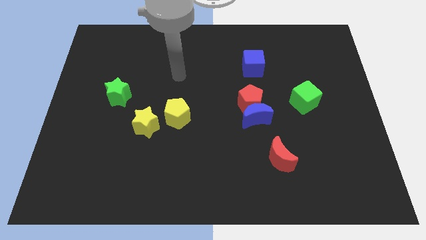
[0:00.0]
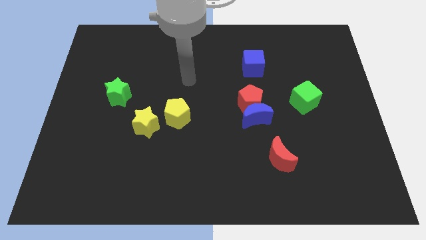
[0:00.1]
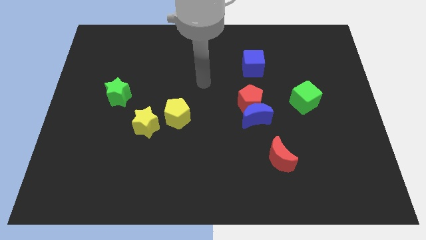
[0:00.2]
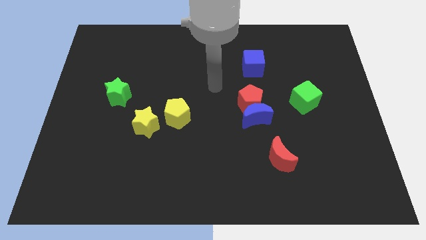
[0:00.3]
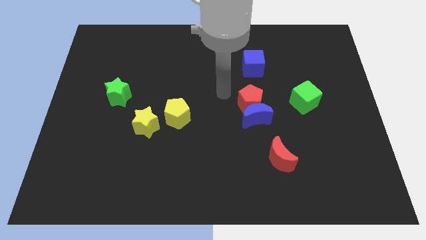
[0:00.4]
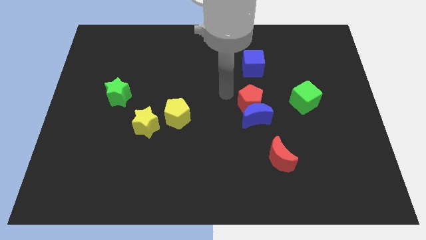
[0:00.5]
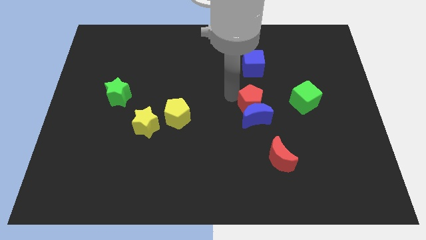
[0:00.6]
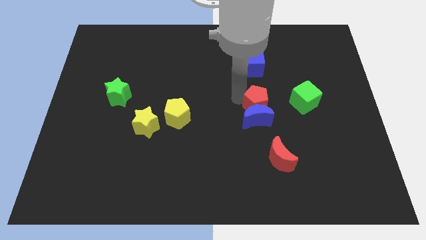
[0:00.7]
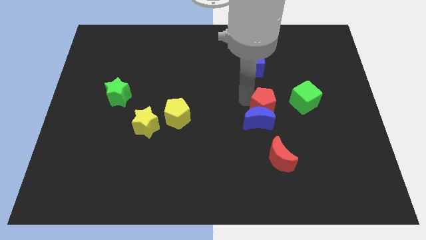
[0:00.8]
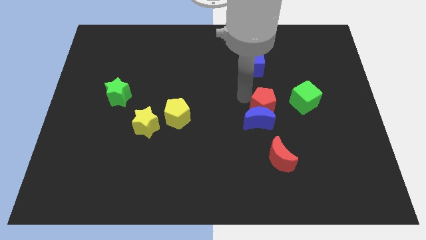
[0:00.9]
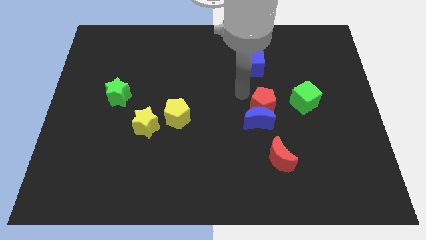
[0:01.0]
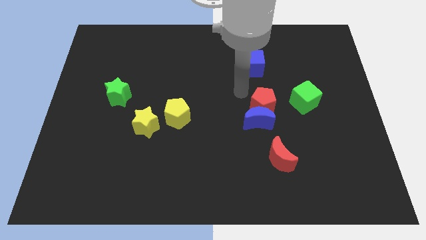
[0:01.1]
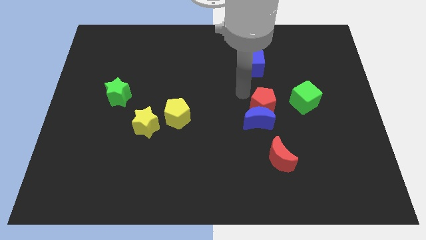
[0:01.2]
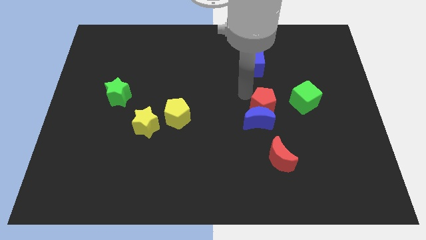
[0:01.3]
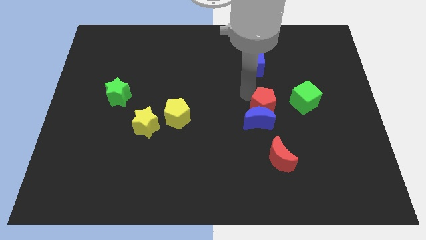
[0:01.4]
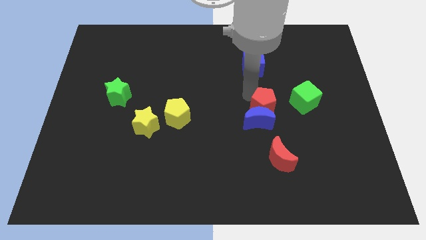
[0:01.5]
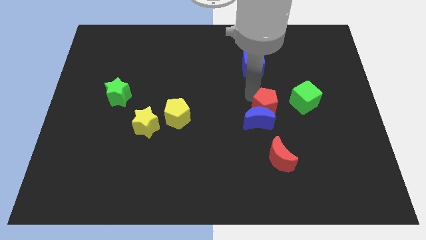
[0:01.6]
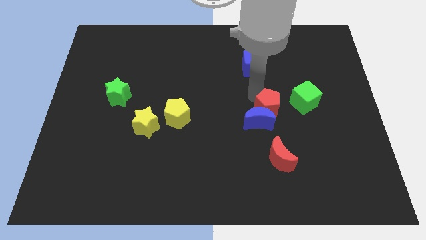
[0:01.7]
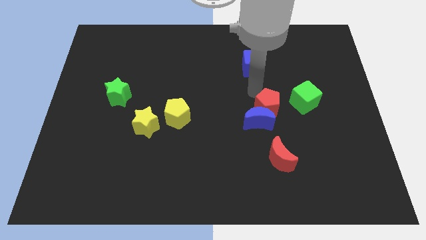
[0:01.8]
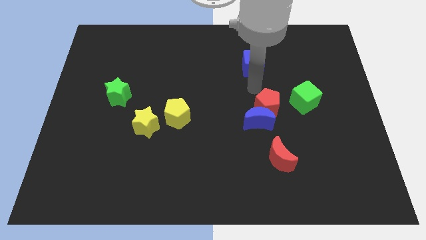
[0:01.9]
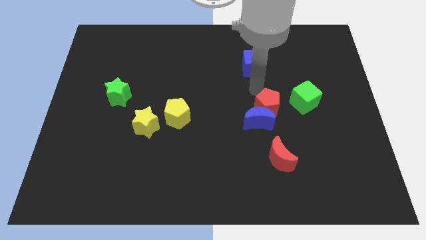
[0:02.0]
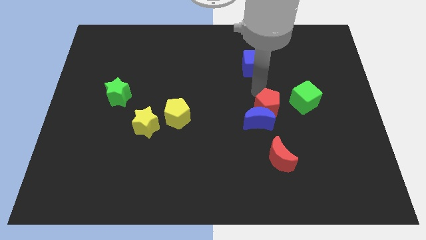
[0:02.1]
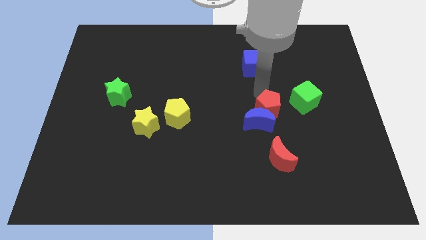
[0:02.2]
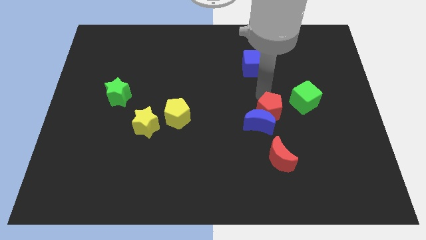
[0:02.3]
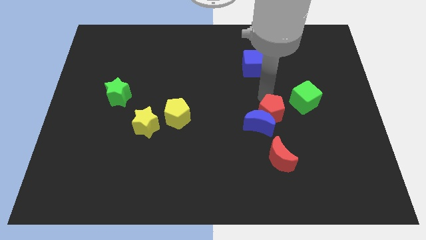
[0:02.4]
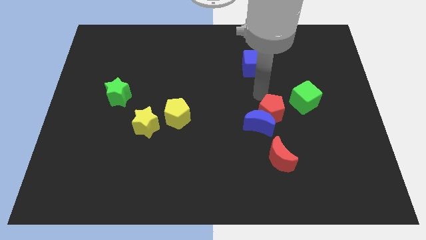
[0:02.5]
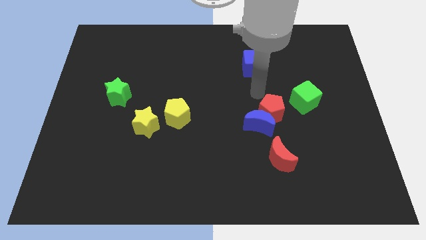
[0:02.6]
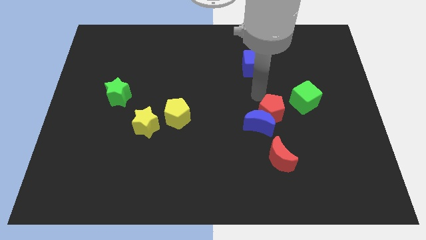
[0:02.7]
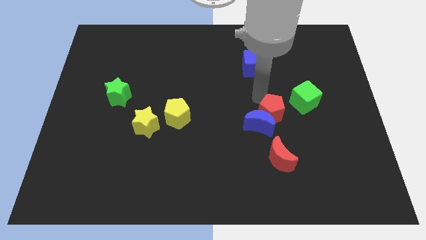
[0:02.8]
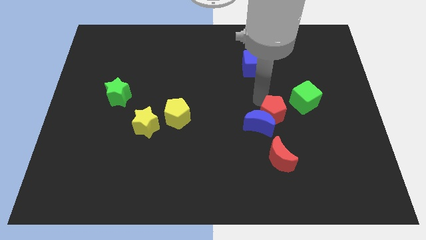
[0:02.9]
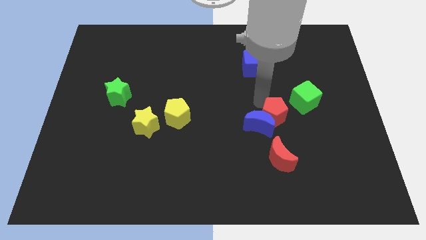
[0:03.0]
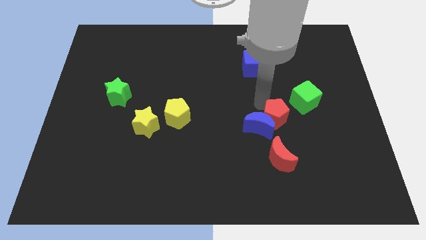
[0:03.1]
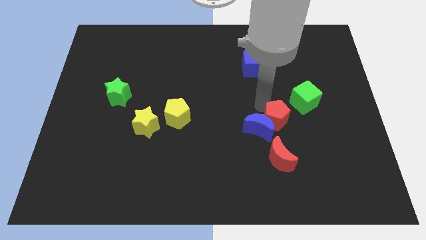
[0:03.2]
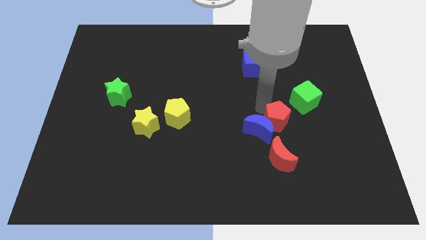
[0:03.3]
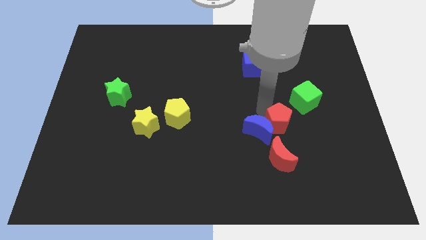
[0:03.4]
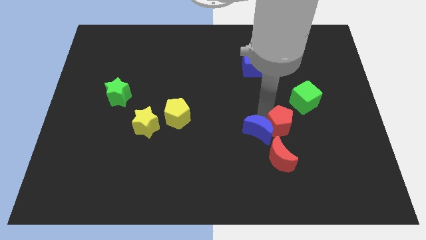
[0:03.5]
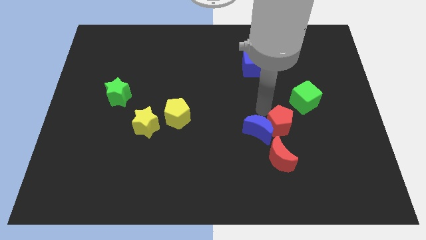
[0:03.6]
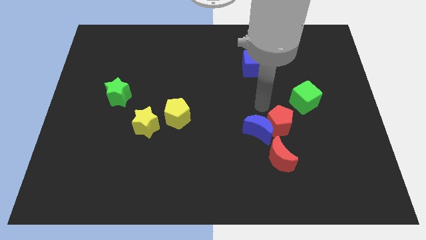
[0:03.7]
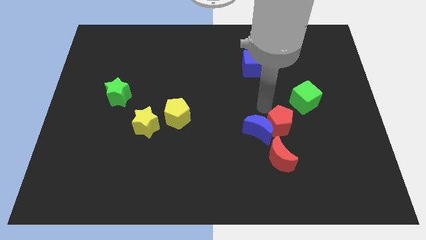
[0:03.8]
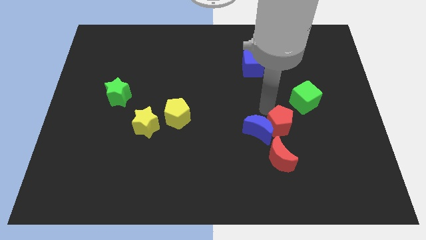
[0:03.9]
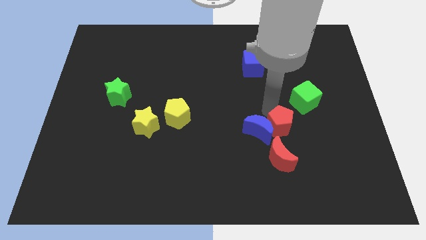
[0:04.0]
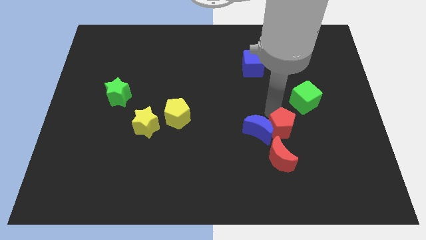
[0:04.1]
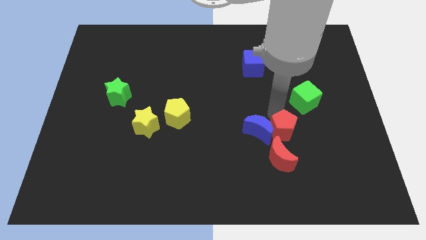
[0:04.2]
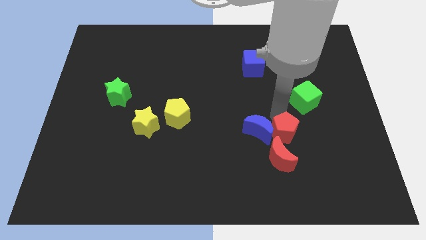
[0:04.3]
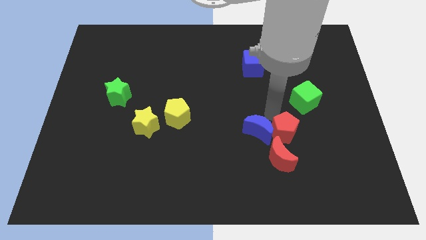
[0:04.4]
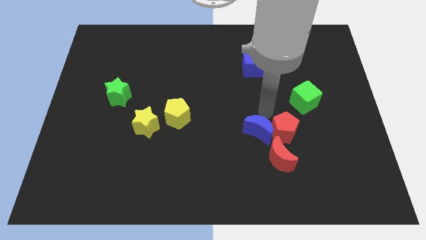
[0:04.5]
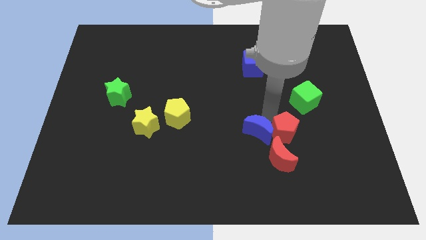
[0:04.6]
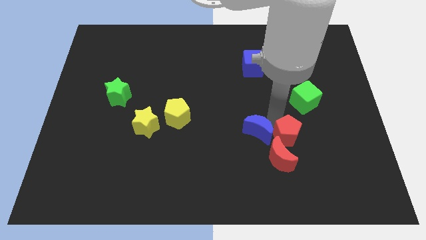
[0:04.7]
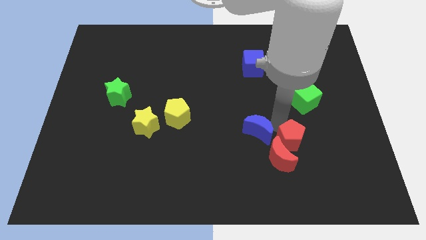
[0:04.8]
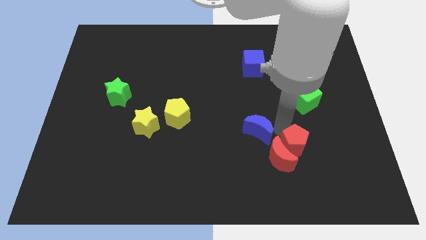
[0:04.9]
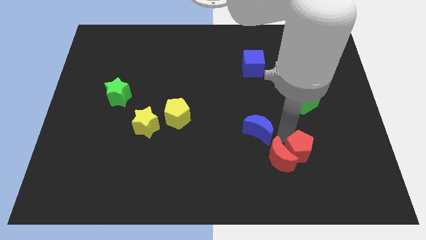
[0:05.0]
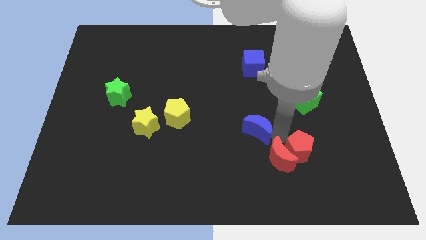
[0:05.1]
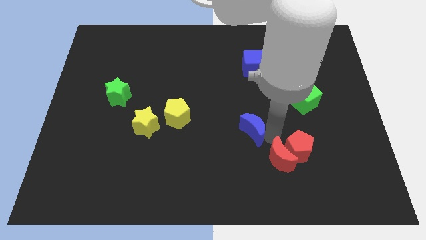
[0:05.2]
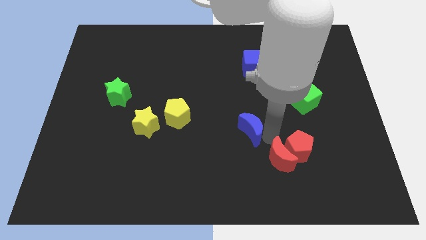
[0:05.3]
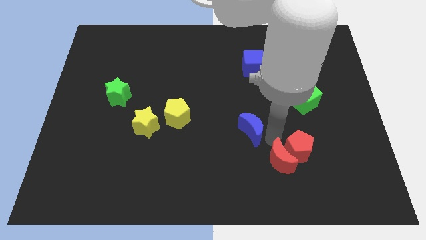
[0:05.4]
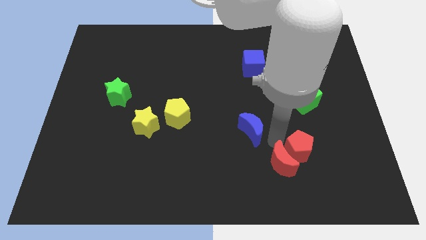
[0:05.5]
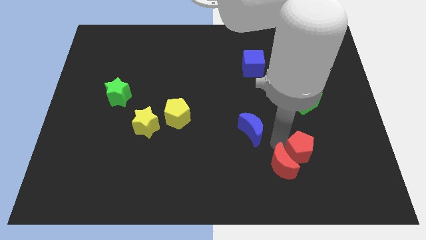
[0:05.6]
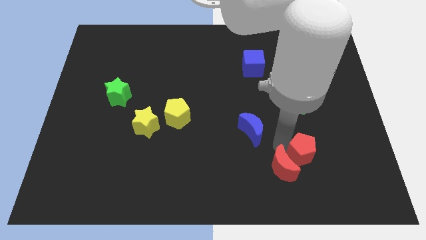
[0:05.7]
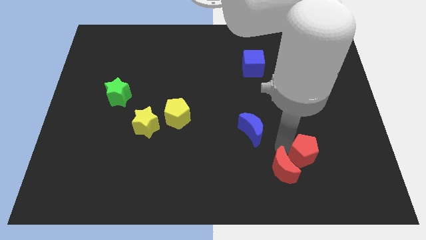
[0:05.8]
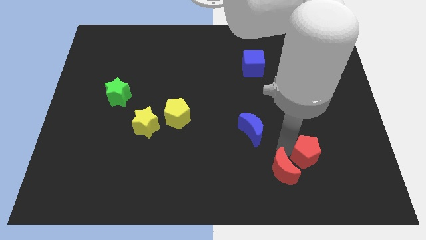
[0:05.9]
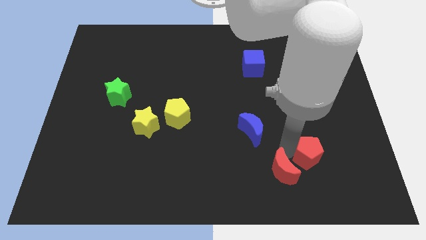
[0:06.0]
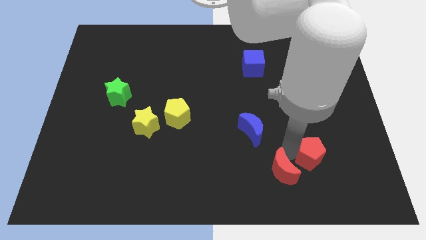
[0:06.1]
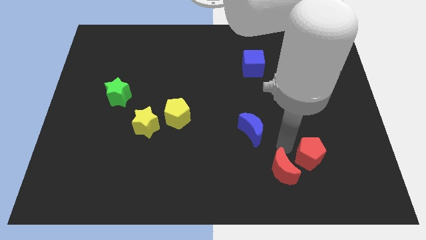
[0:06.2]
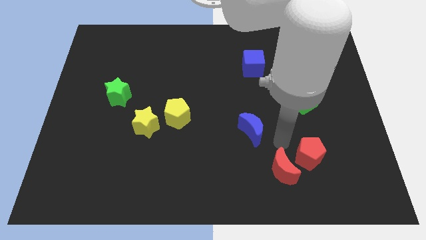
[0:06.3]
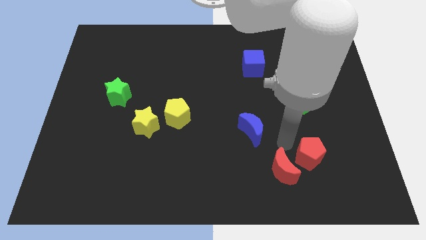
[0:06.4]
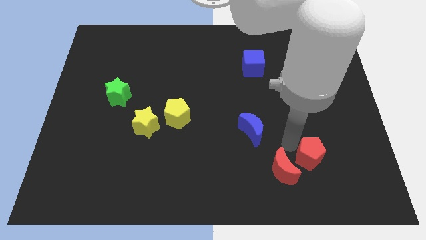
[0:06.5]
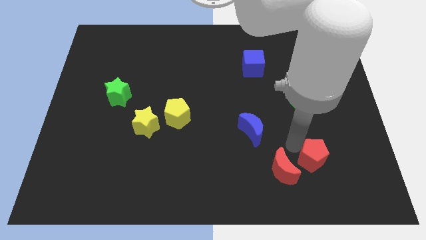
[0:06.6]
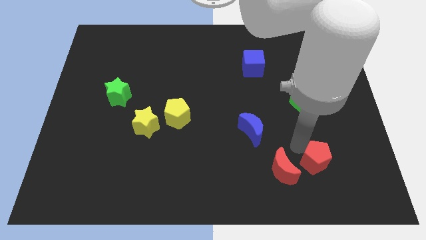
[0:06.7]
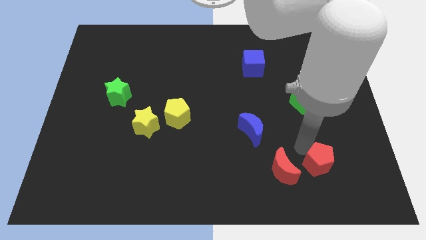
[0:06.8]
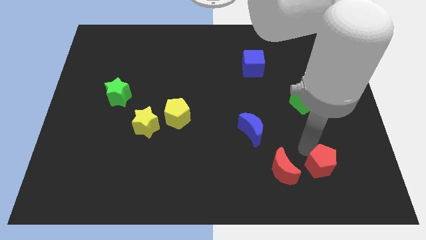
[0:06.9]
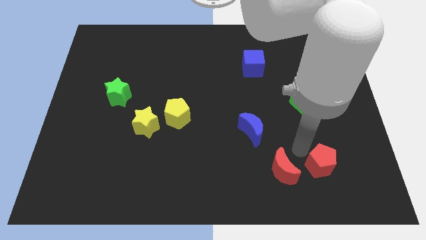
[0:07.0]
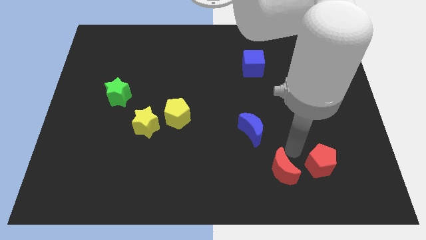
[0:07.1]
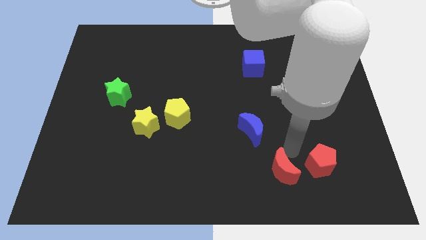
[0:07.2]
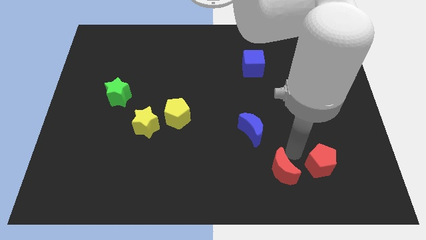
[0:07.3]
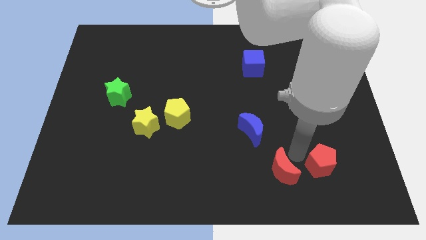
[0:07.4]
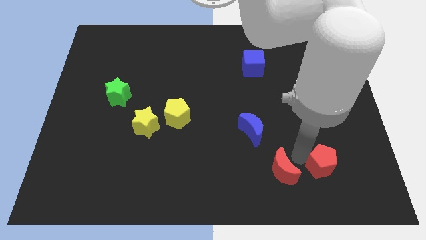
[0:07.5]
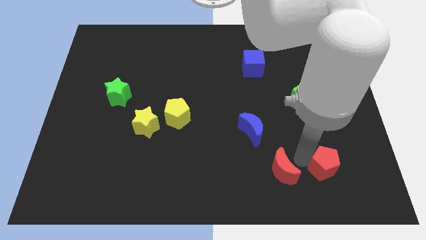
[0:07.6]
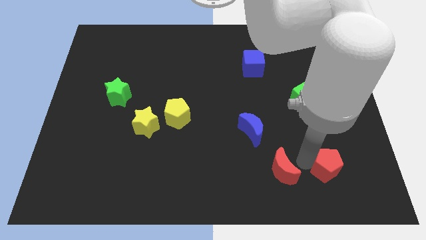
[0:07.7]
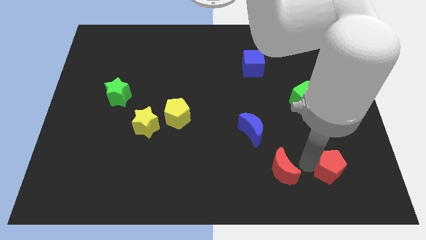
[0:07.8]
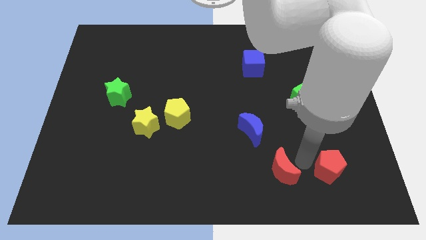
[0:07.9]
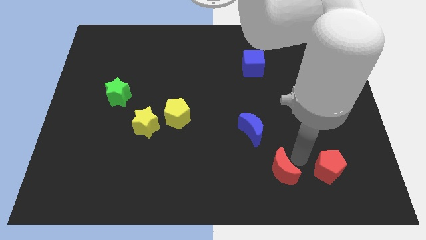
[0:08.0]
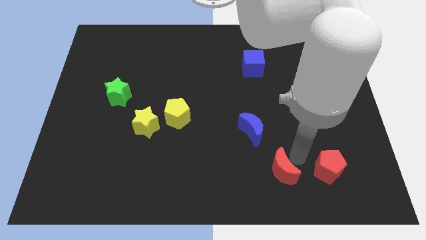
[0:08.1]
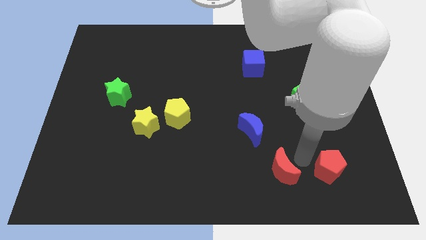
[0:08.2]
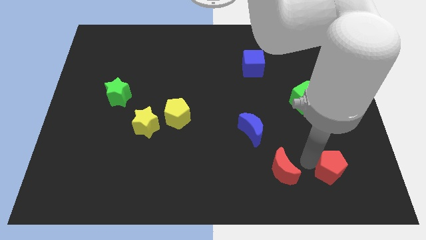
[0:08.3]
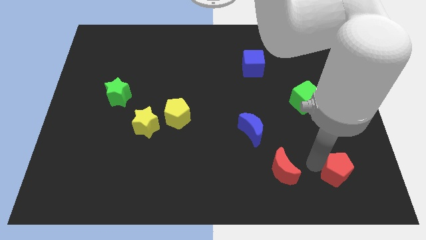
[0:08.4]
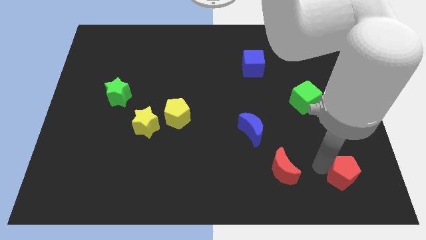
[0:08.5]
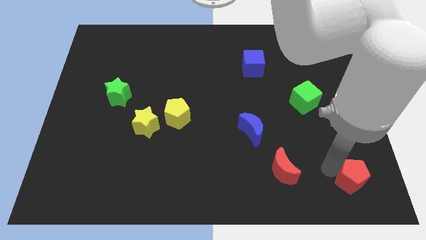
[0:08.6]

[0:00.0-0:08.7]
slide the red pentagon to the bottom right corner
